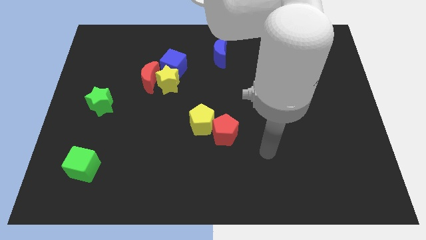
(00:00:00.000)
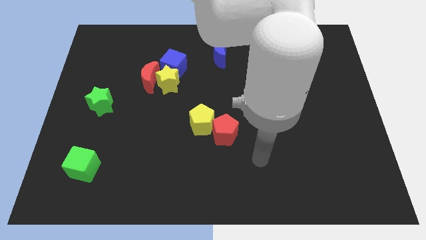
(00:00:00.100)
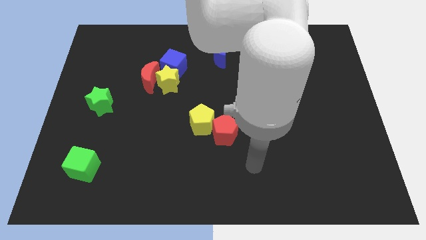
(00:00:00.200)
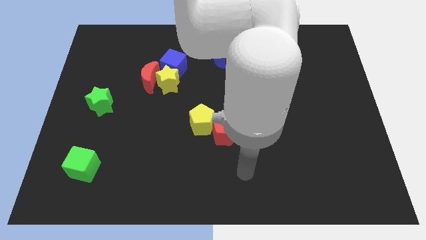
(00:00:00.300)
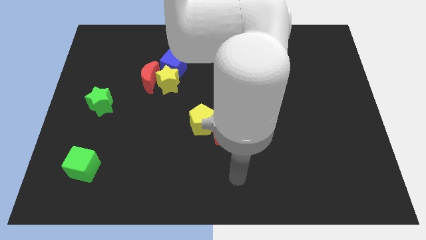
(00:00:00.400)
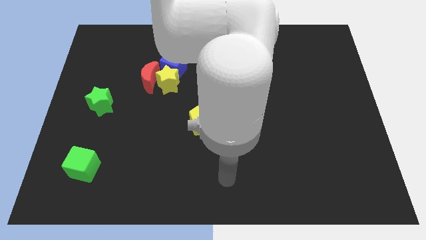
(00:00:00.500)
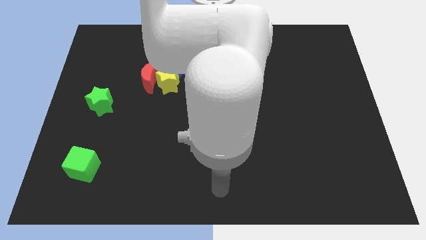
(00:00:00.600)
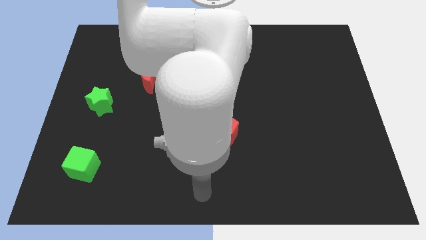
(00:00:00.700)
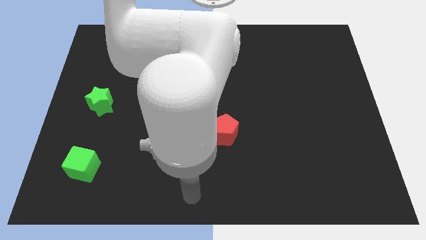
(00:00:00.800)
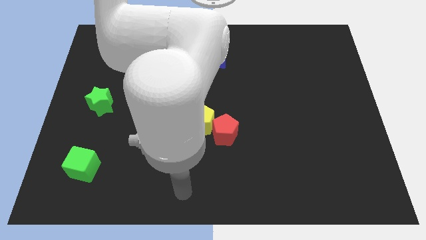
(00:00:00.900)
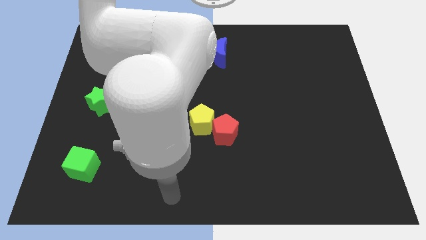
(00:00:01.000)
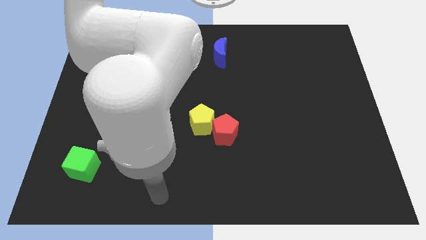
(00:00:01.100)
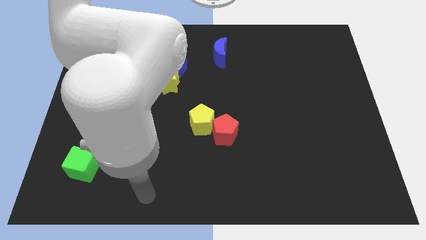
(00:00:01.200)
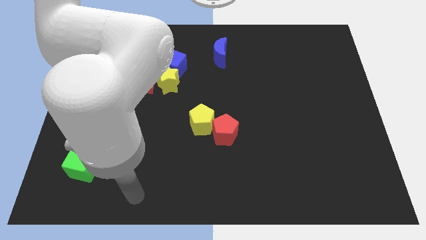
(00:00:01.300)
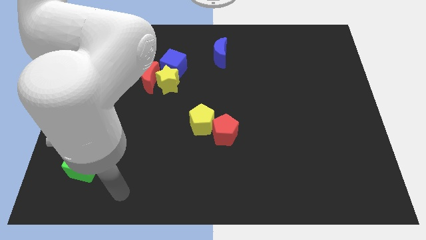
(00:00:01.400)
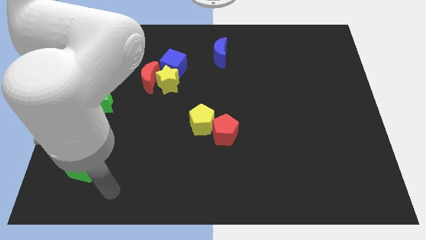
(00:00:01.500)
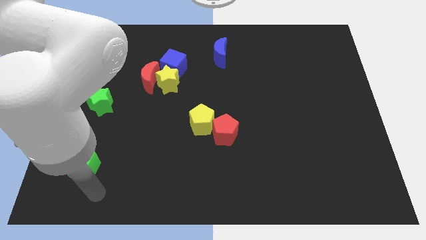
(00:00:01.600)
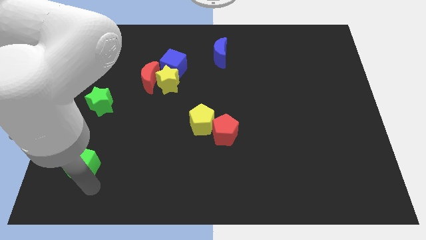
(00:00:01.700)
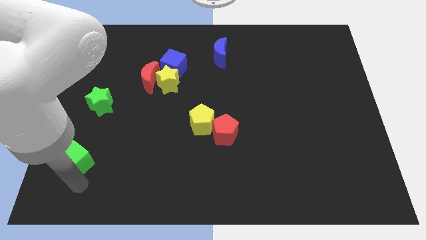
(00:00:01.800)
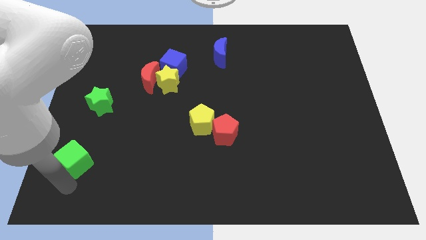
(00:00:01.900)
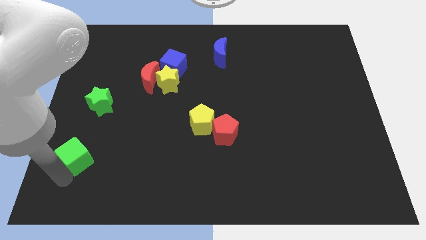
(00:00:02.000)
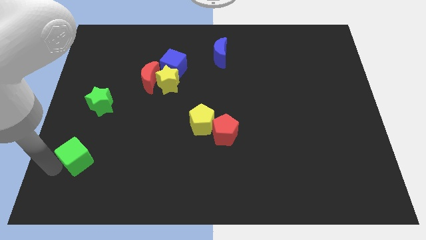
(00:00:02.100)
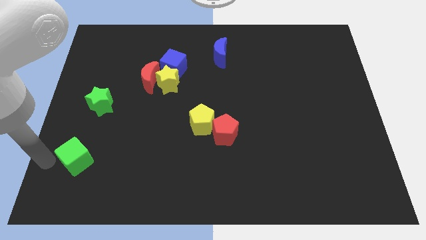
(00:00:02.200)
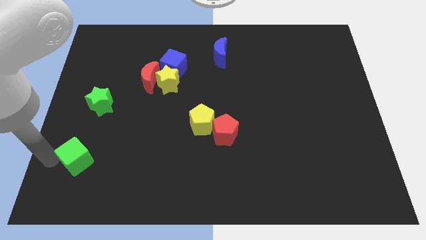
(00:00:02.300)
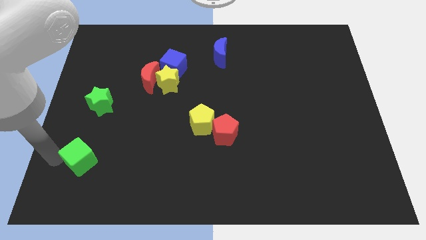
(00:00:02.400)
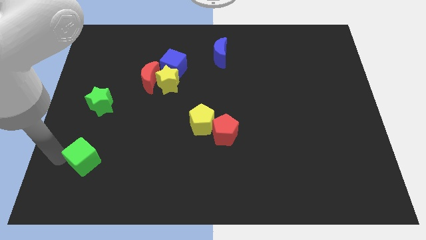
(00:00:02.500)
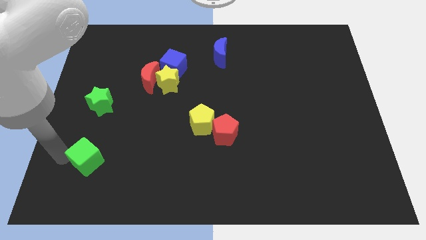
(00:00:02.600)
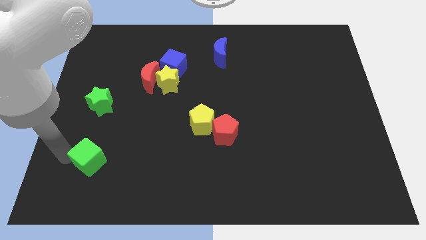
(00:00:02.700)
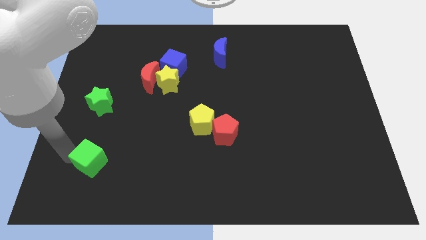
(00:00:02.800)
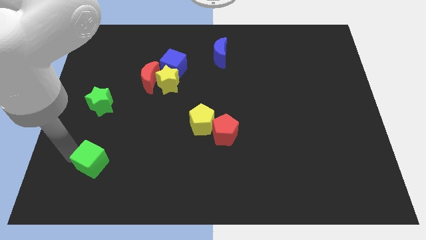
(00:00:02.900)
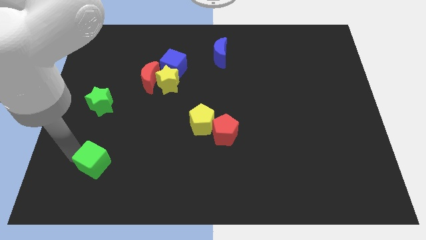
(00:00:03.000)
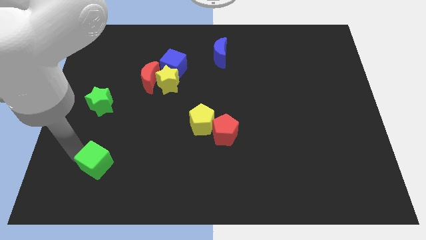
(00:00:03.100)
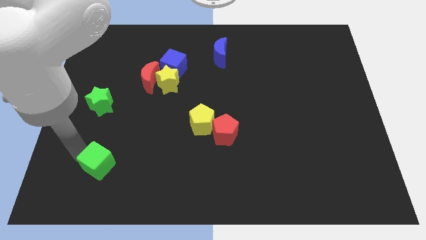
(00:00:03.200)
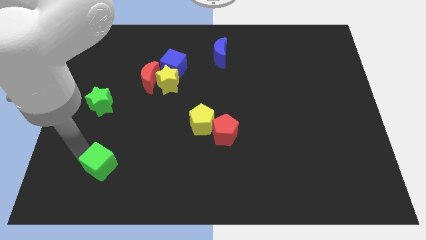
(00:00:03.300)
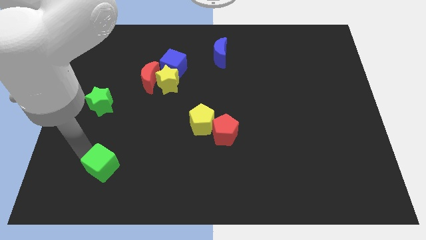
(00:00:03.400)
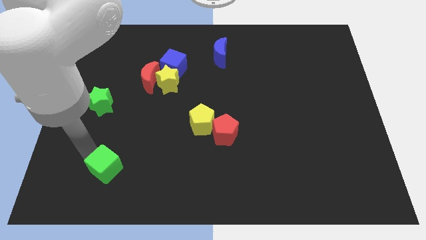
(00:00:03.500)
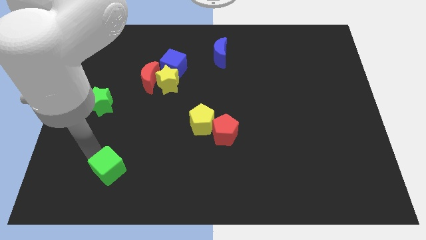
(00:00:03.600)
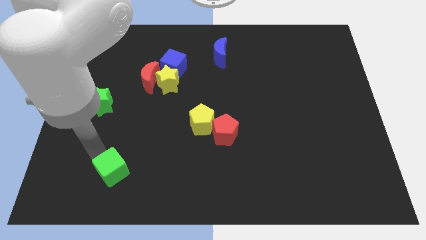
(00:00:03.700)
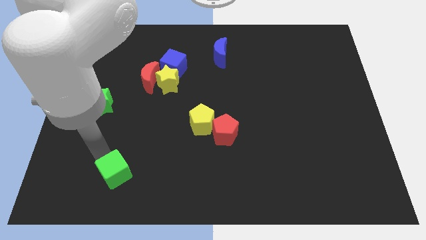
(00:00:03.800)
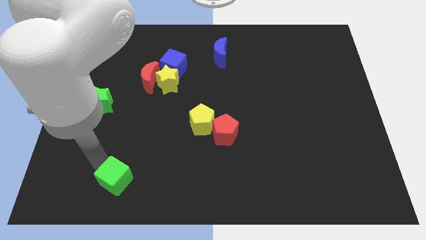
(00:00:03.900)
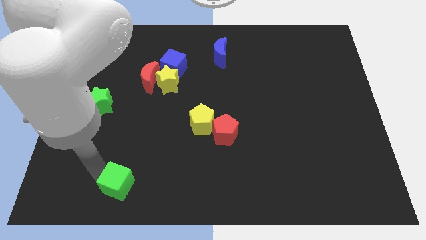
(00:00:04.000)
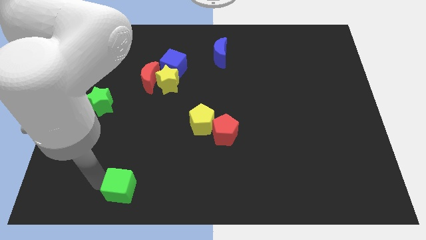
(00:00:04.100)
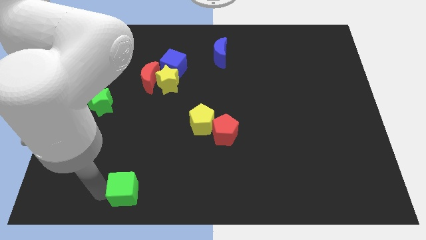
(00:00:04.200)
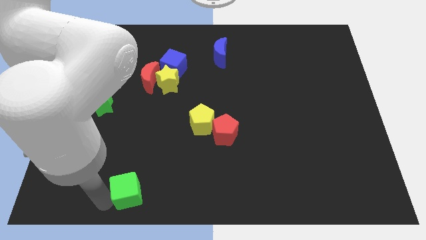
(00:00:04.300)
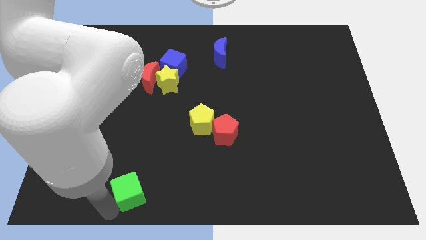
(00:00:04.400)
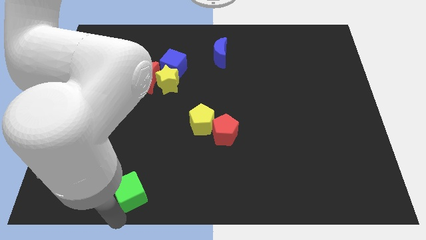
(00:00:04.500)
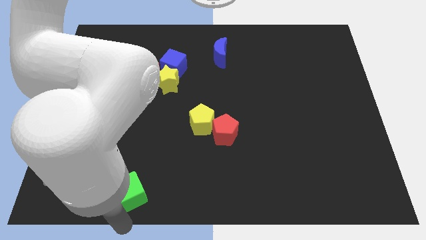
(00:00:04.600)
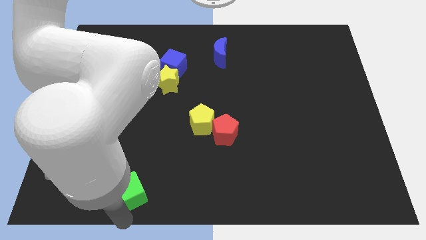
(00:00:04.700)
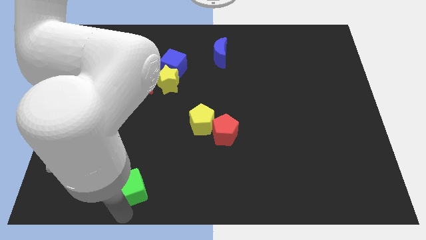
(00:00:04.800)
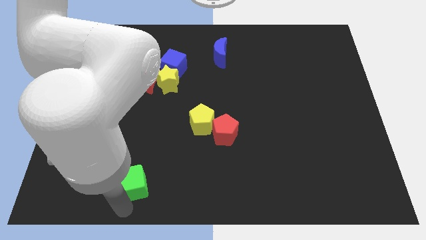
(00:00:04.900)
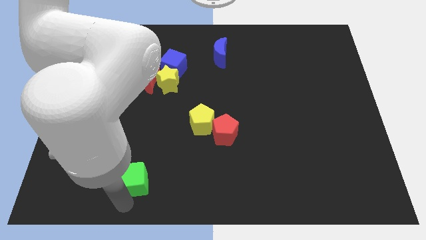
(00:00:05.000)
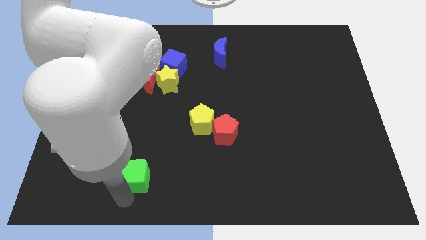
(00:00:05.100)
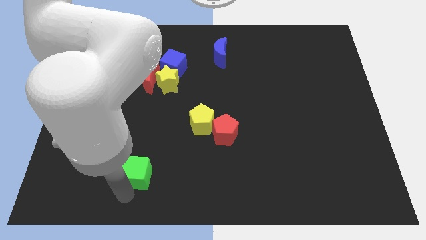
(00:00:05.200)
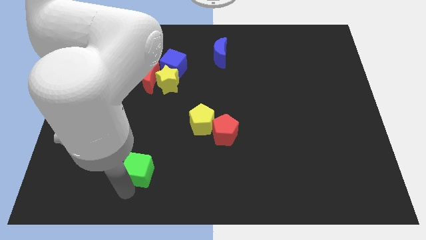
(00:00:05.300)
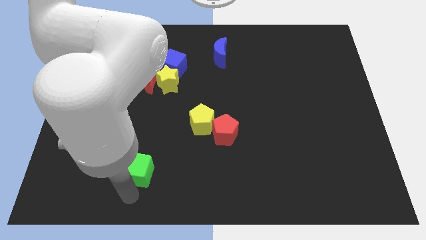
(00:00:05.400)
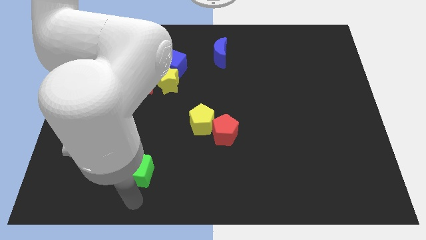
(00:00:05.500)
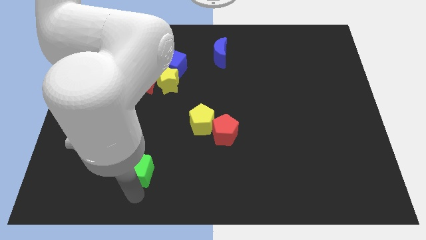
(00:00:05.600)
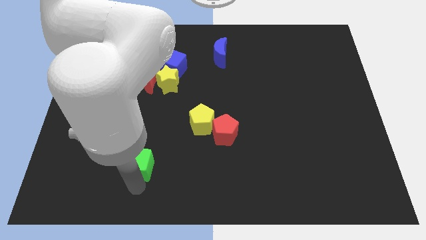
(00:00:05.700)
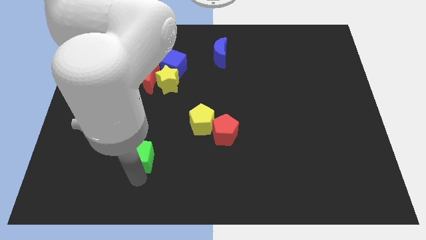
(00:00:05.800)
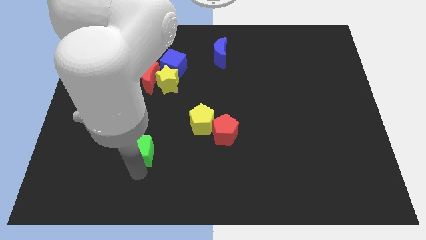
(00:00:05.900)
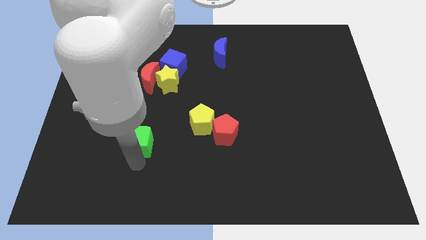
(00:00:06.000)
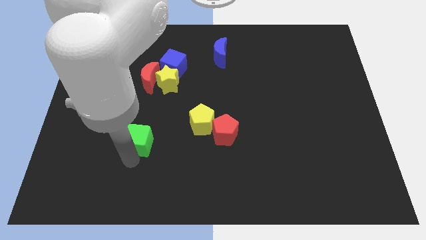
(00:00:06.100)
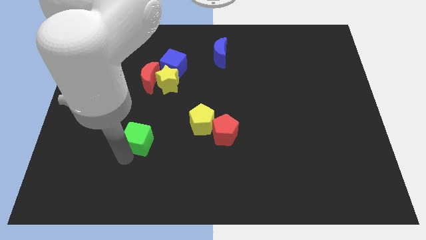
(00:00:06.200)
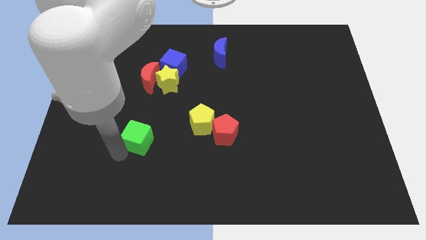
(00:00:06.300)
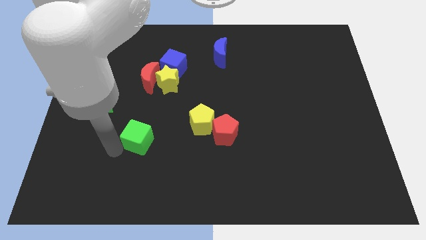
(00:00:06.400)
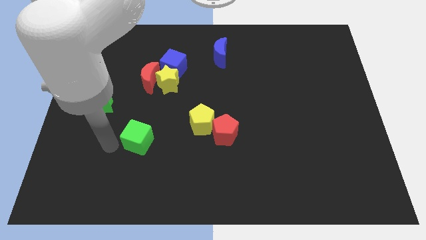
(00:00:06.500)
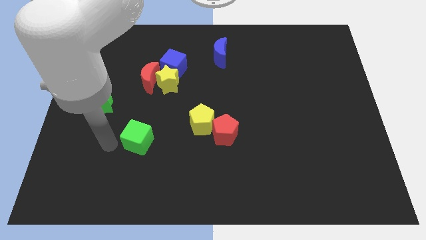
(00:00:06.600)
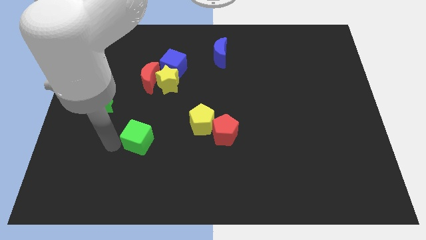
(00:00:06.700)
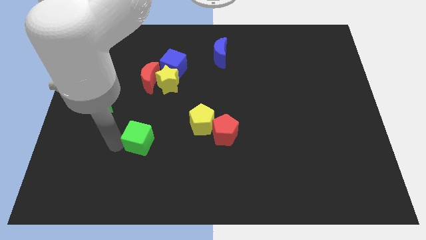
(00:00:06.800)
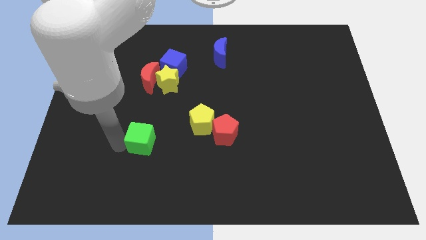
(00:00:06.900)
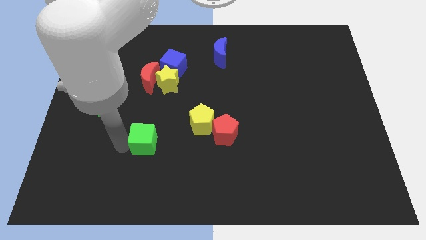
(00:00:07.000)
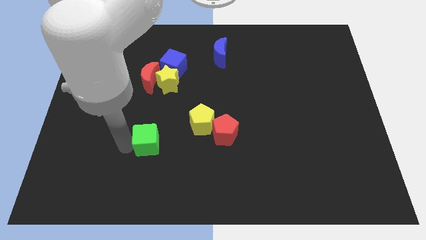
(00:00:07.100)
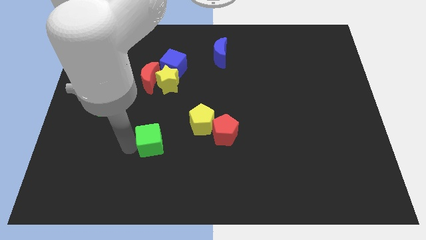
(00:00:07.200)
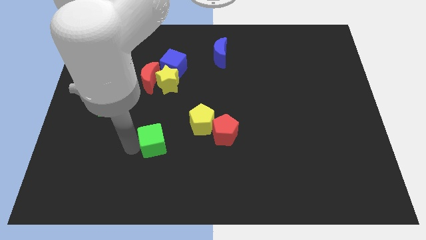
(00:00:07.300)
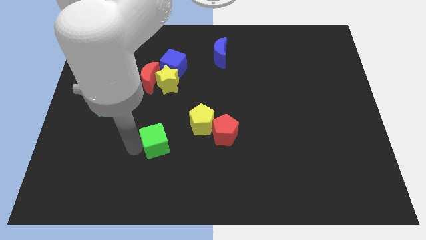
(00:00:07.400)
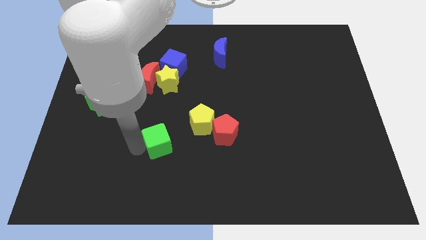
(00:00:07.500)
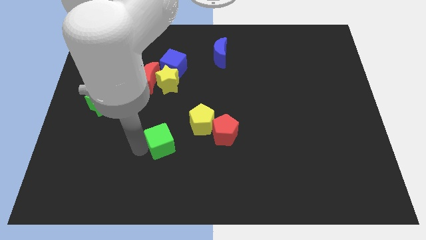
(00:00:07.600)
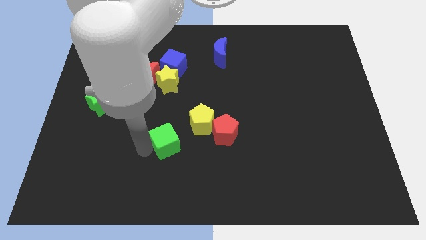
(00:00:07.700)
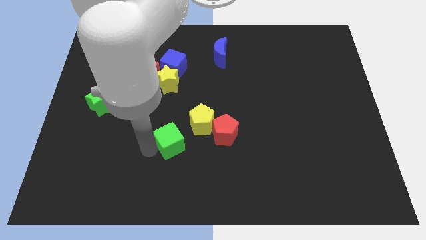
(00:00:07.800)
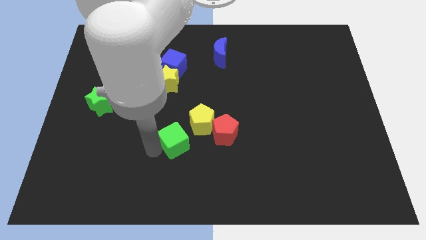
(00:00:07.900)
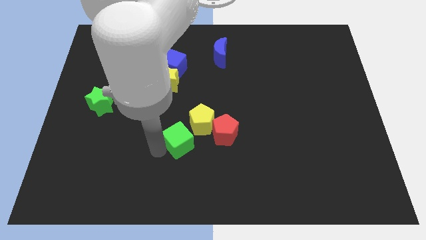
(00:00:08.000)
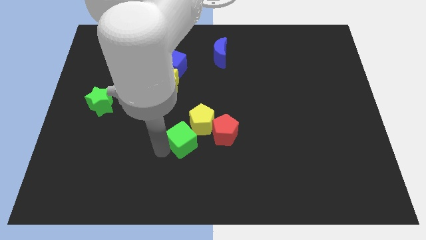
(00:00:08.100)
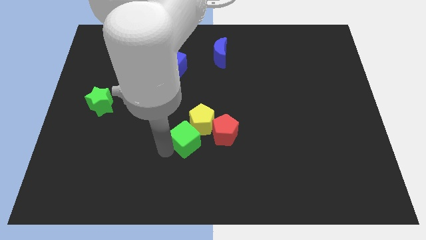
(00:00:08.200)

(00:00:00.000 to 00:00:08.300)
slide the green cube to the yellow pentagon
